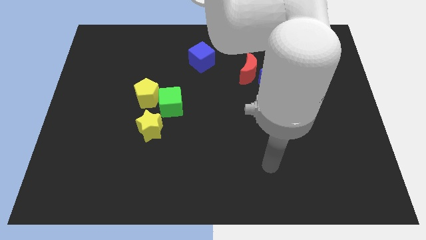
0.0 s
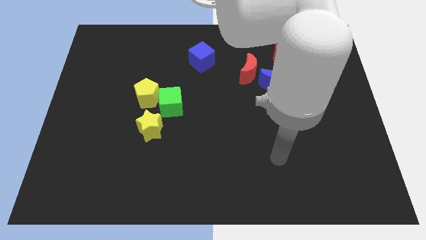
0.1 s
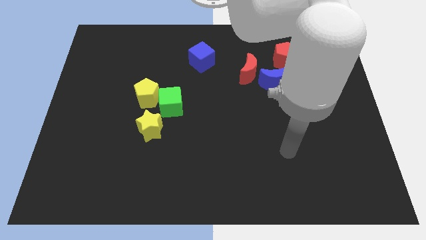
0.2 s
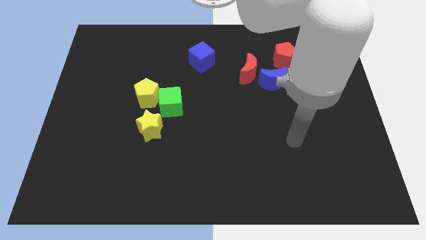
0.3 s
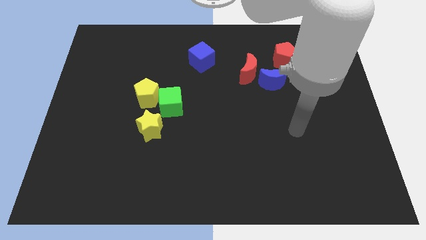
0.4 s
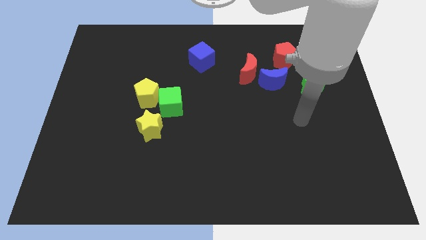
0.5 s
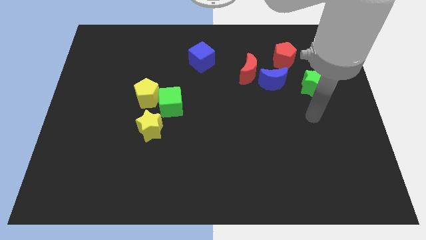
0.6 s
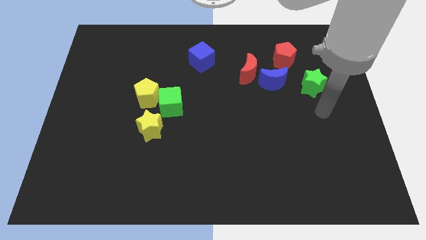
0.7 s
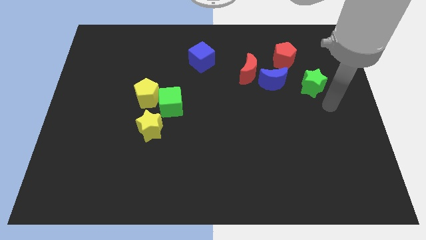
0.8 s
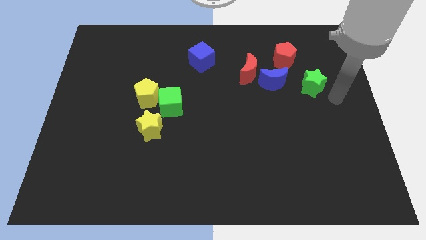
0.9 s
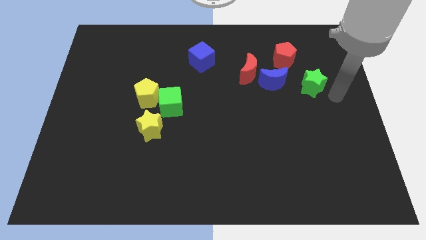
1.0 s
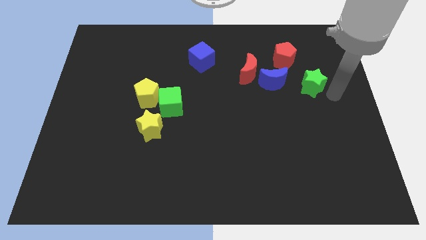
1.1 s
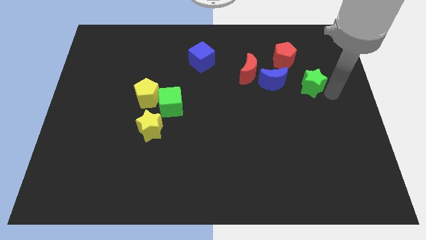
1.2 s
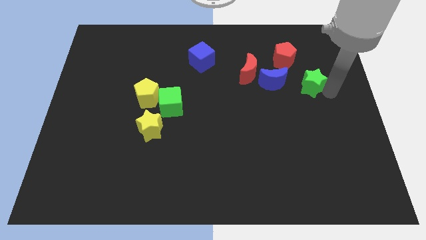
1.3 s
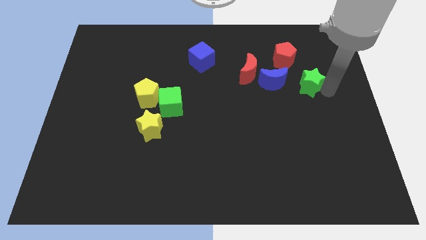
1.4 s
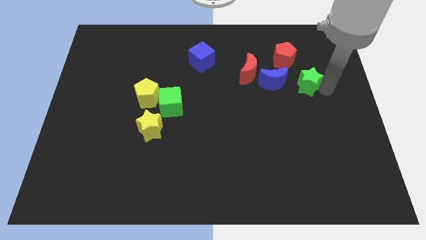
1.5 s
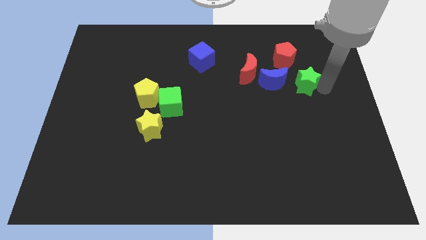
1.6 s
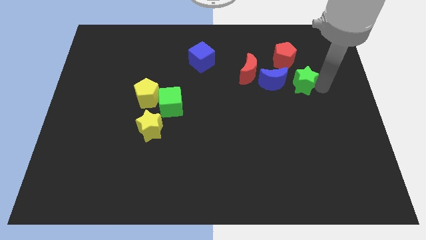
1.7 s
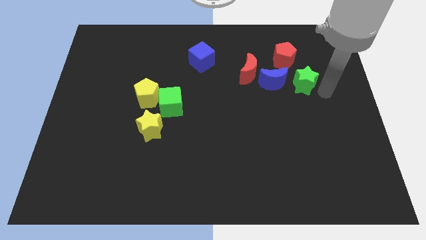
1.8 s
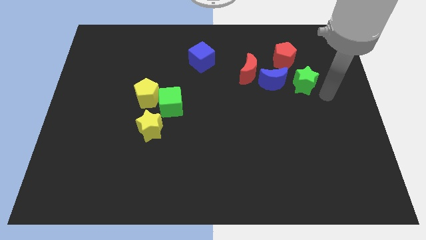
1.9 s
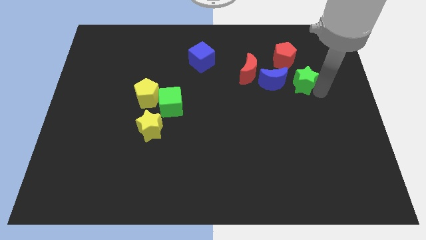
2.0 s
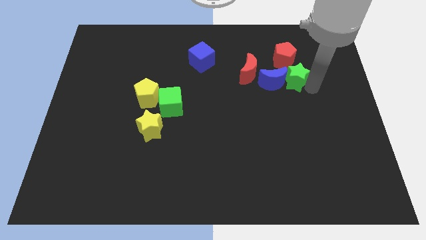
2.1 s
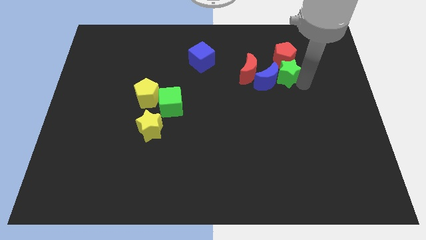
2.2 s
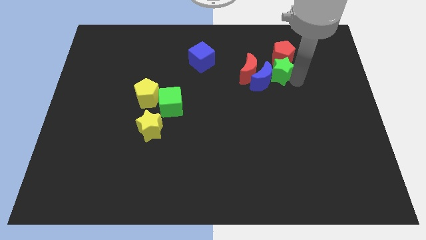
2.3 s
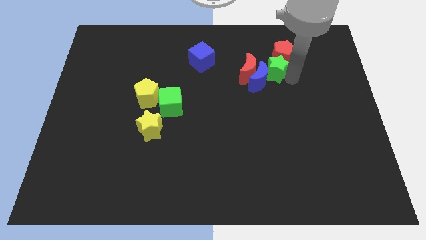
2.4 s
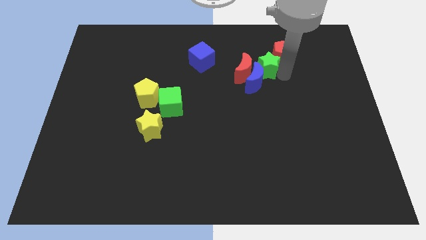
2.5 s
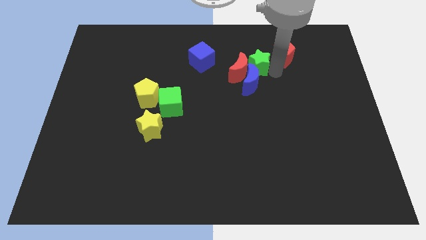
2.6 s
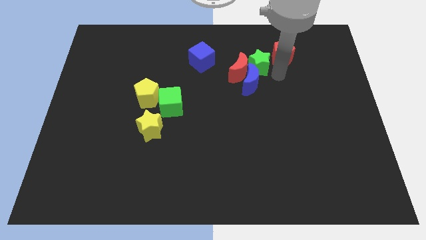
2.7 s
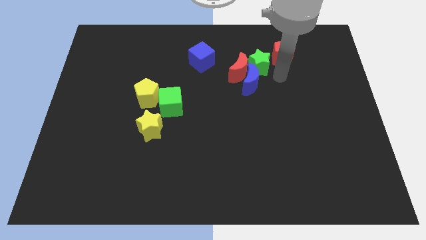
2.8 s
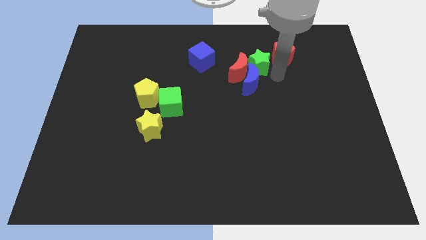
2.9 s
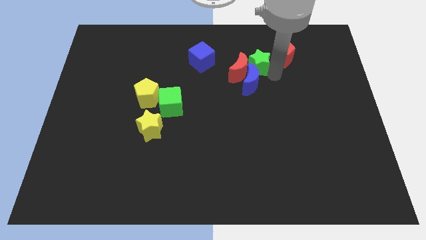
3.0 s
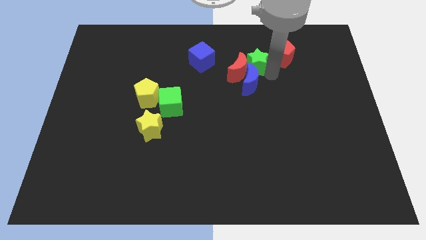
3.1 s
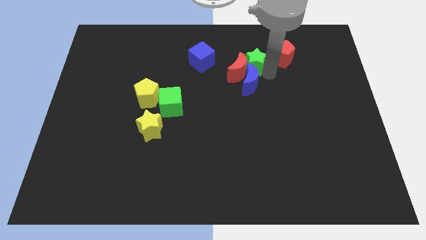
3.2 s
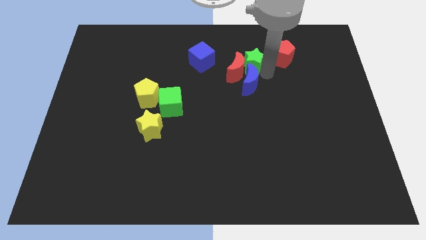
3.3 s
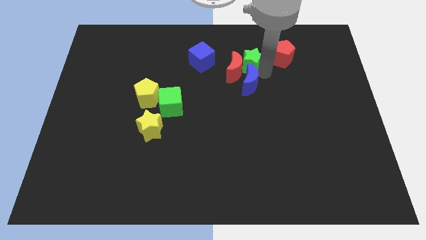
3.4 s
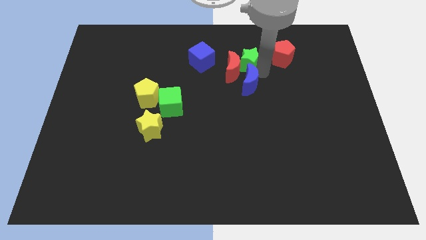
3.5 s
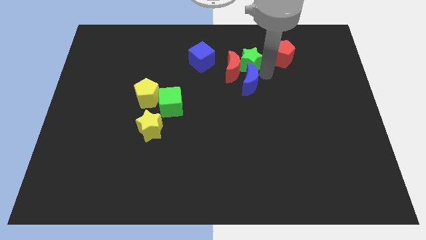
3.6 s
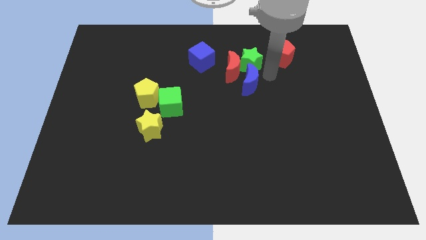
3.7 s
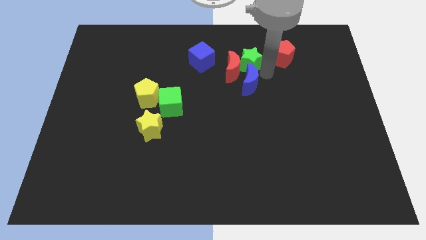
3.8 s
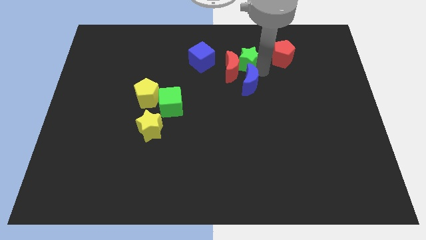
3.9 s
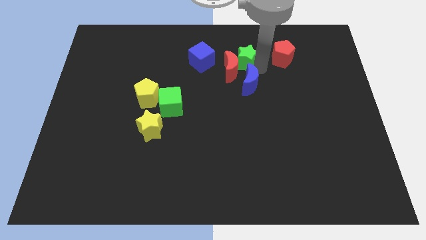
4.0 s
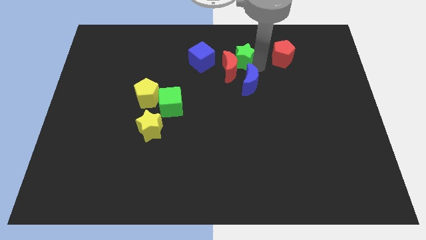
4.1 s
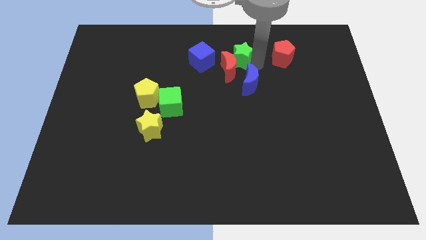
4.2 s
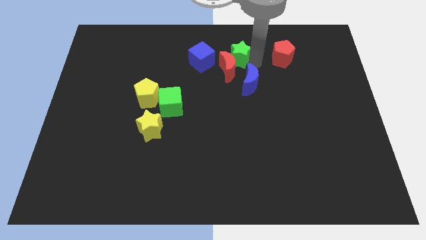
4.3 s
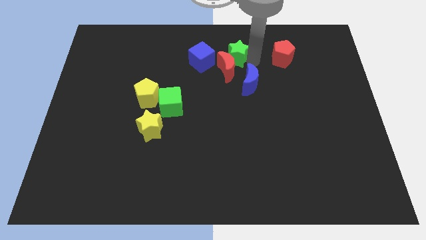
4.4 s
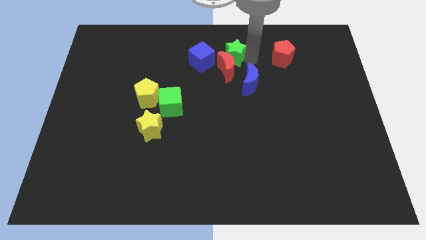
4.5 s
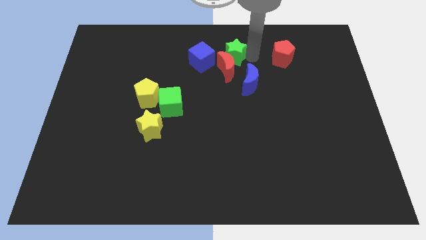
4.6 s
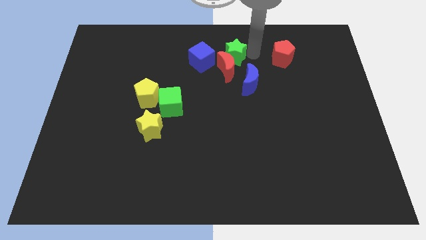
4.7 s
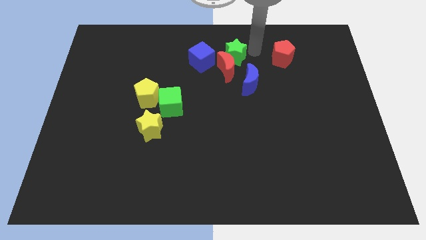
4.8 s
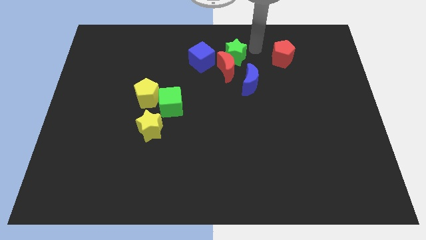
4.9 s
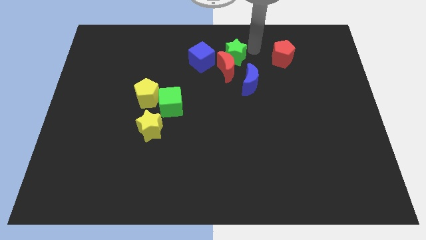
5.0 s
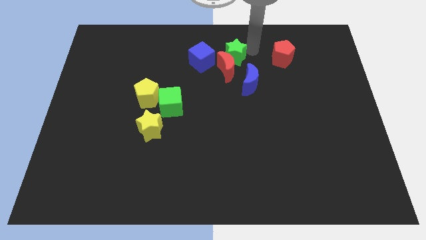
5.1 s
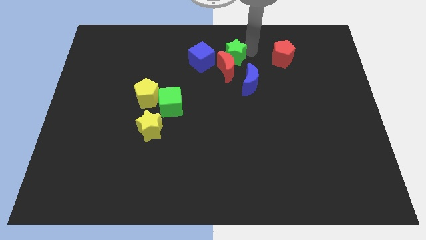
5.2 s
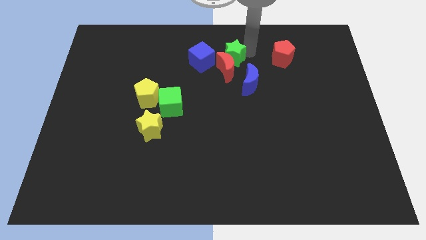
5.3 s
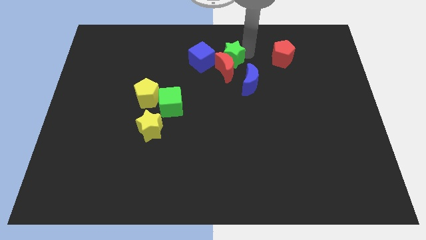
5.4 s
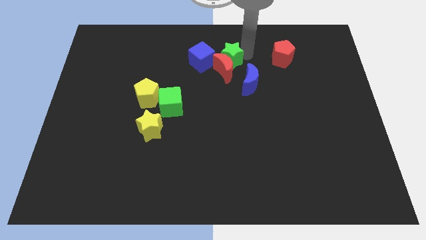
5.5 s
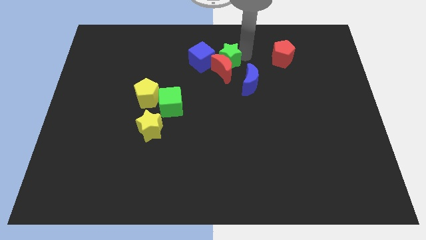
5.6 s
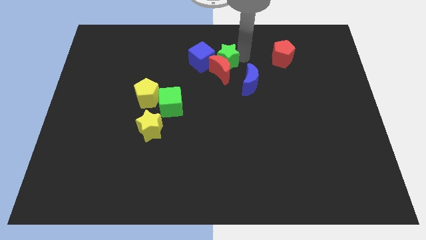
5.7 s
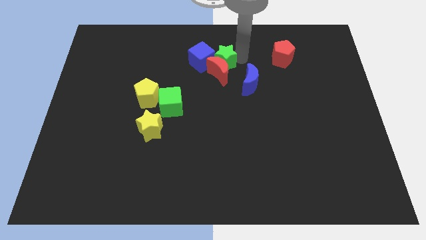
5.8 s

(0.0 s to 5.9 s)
push the green star close to the blue cube
